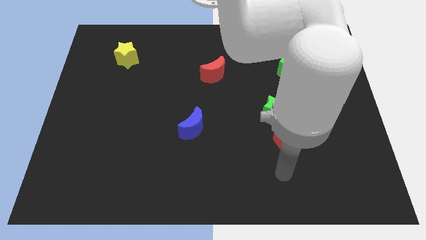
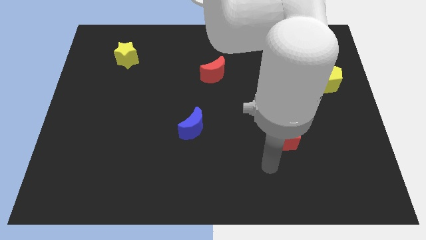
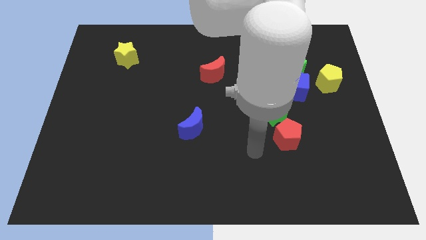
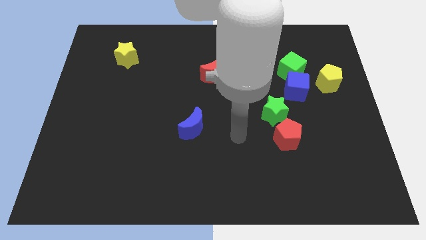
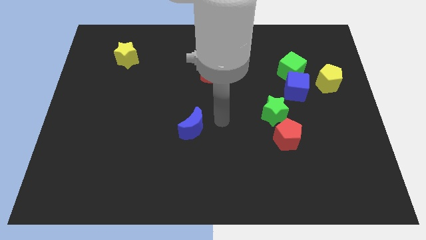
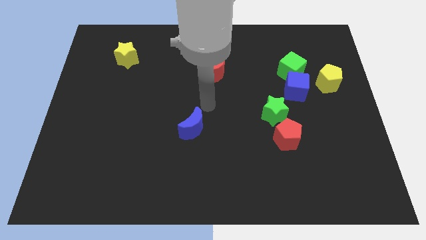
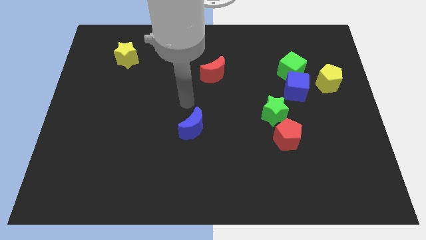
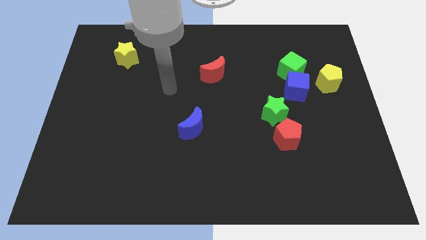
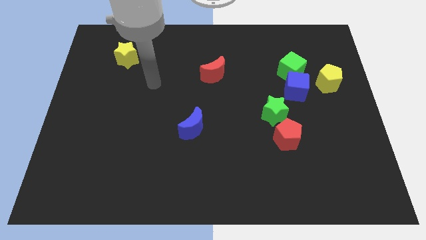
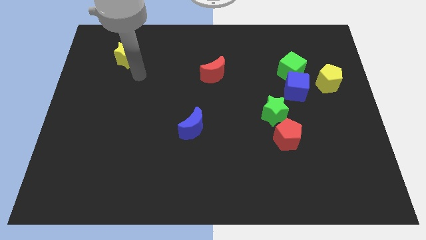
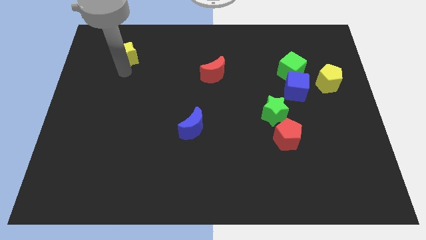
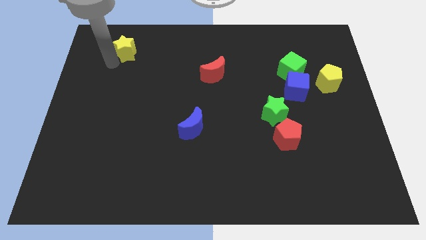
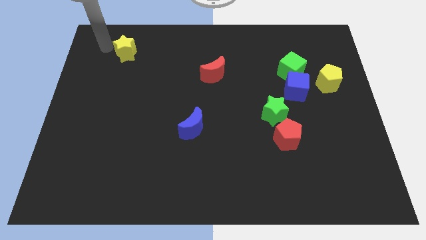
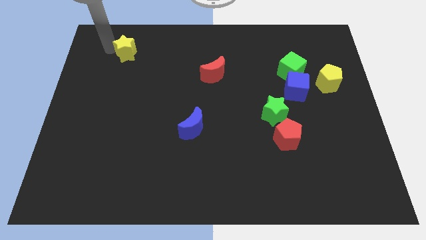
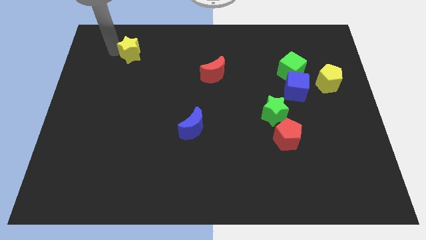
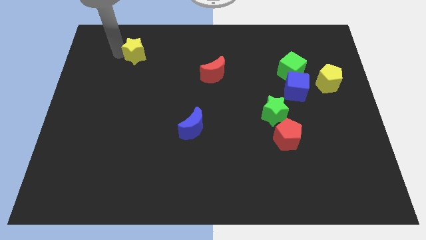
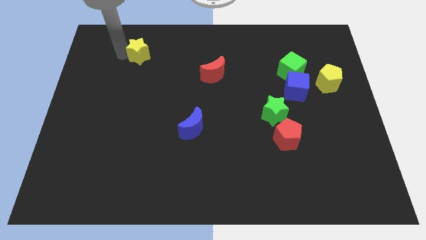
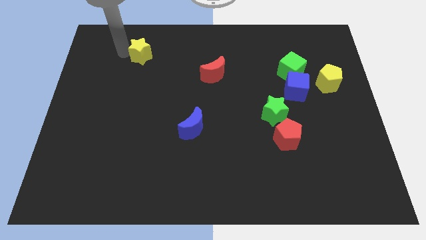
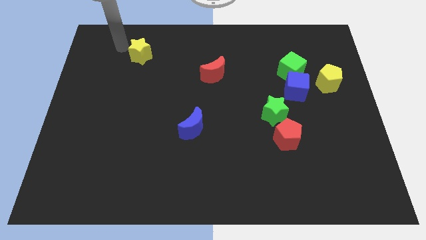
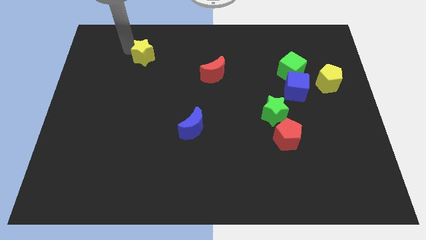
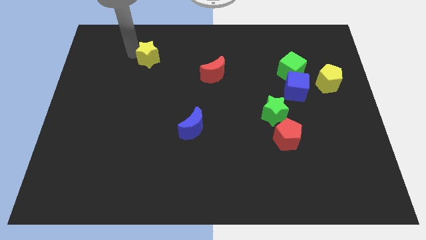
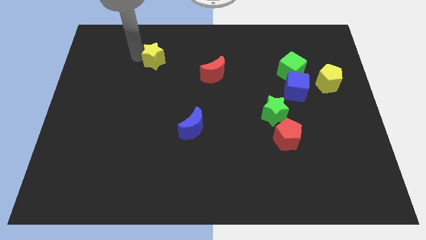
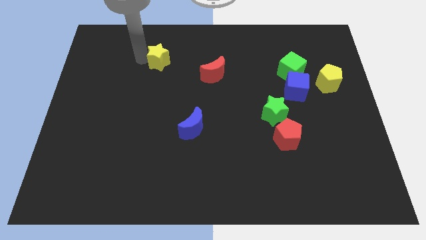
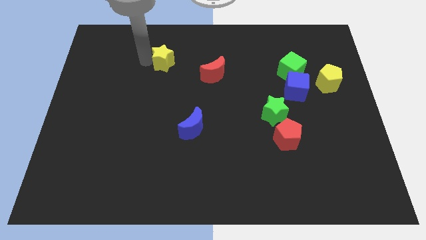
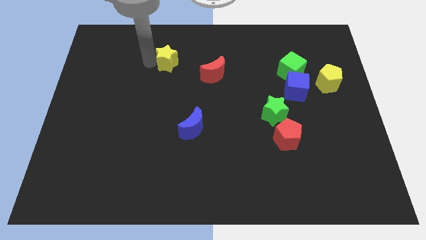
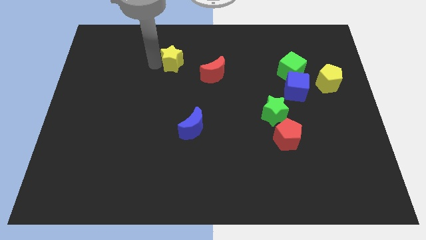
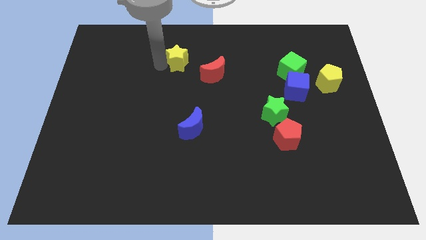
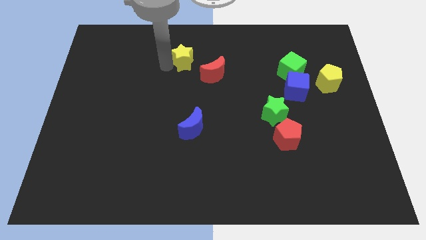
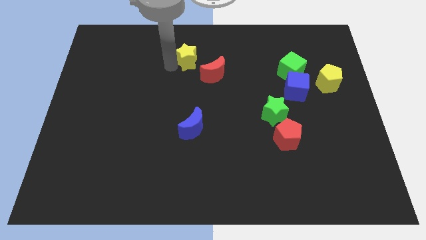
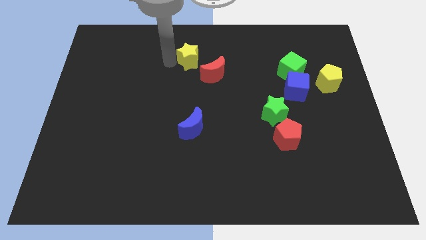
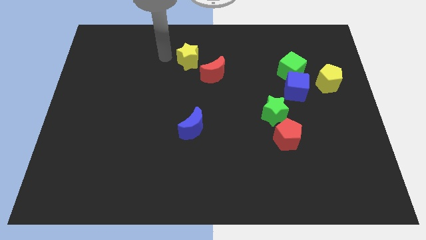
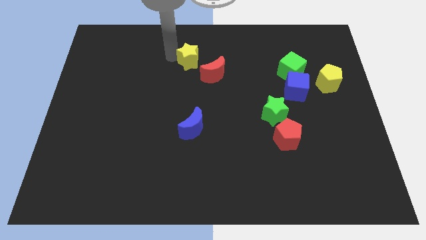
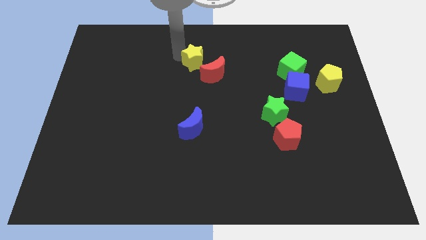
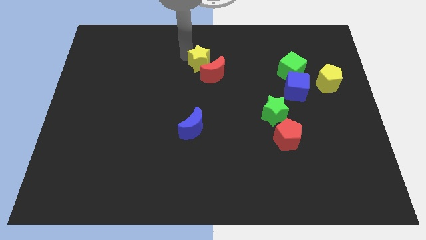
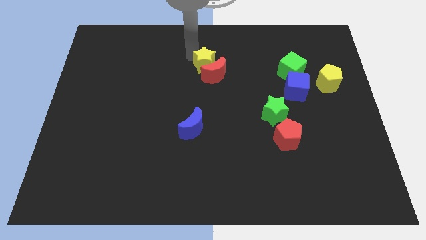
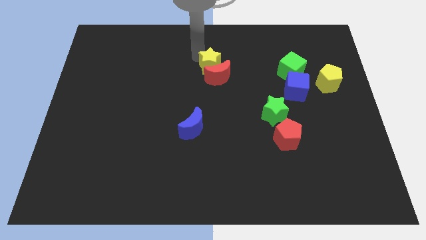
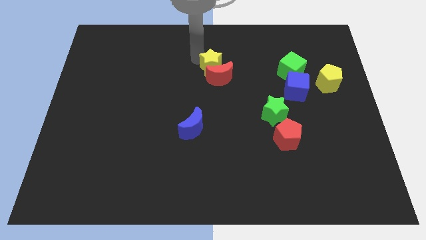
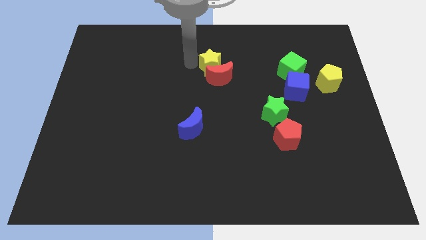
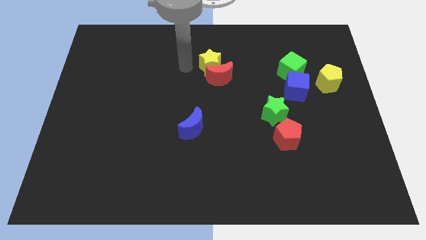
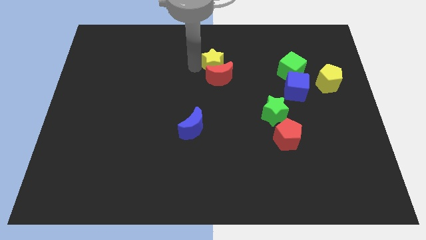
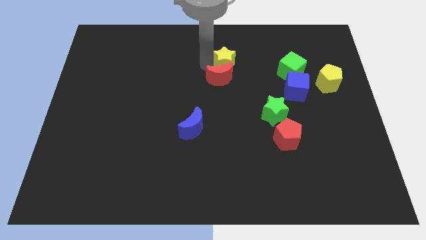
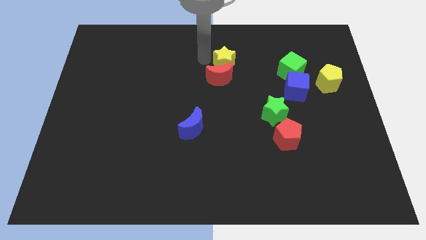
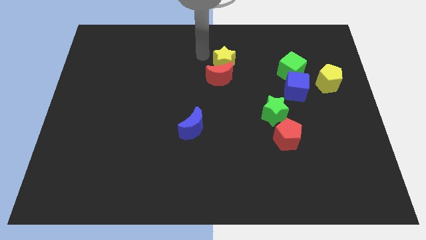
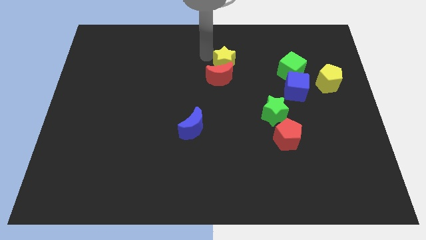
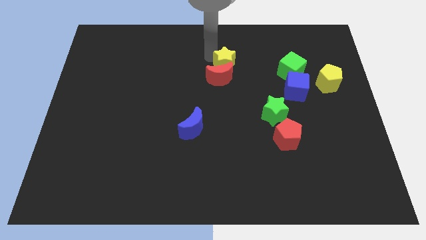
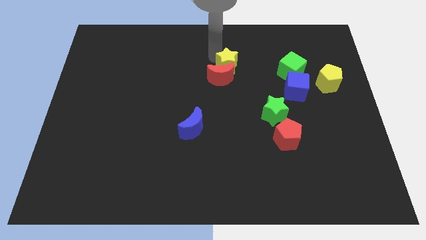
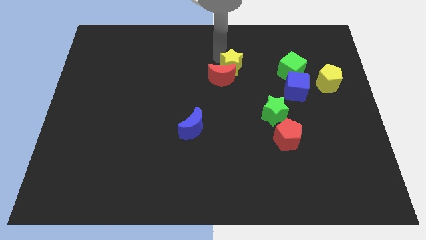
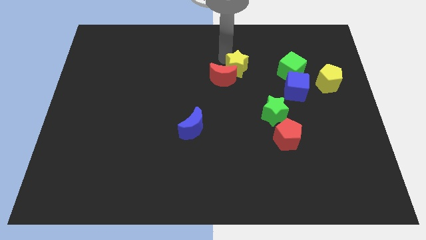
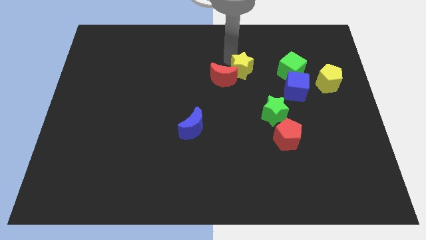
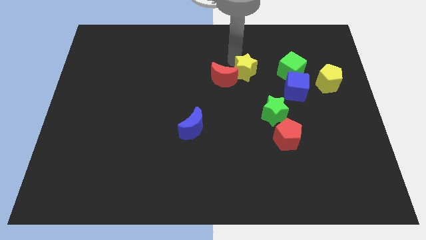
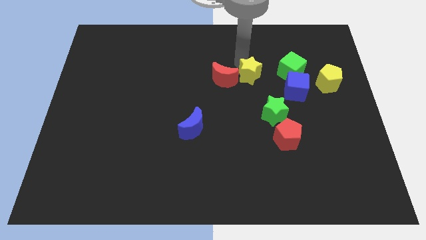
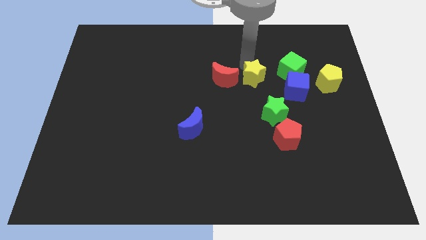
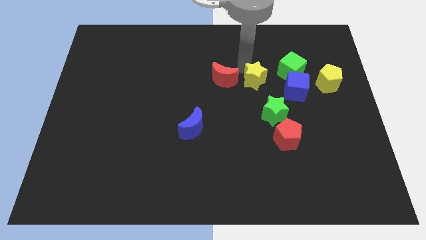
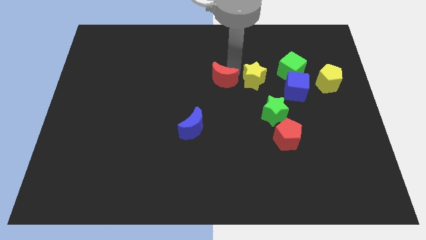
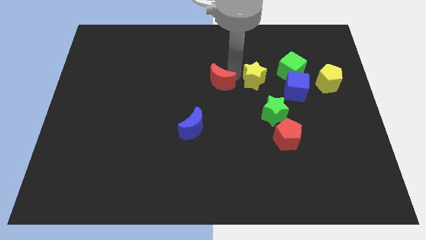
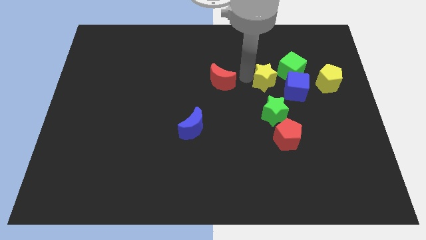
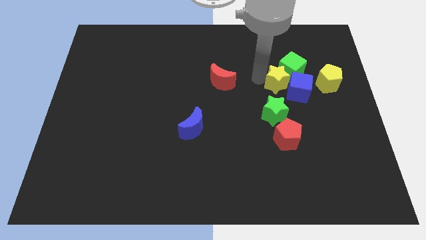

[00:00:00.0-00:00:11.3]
move the yellow star close to the blue cube
